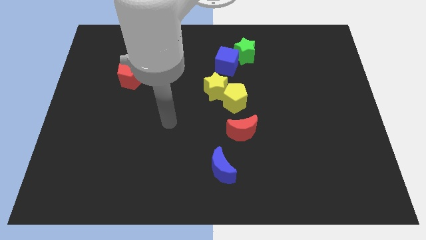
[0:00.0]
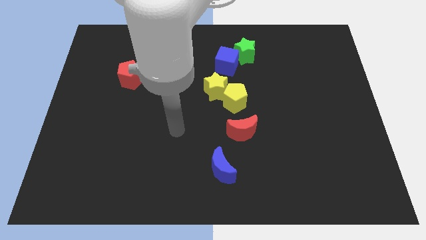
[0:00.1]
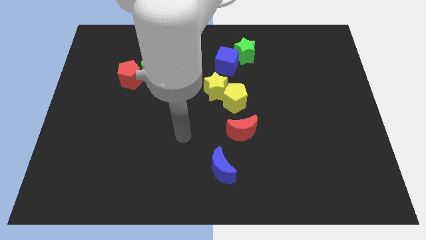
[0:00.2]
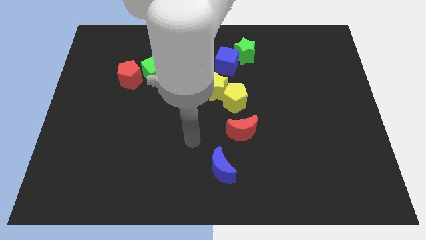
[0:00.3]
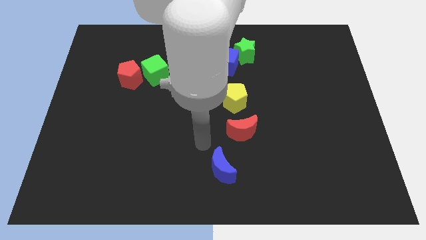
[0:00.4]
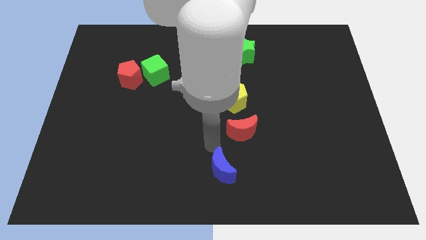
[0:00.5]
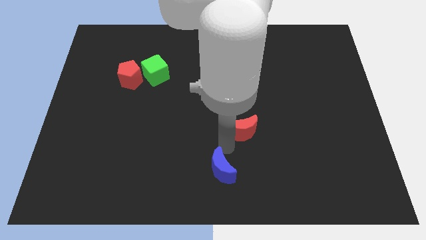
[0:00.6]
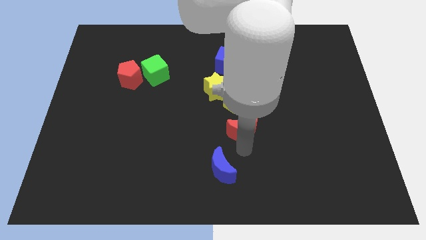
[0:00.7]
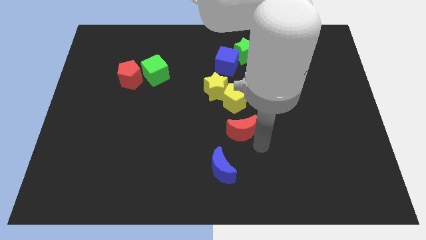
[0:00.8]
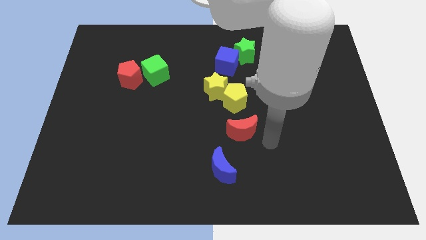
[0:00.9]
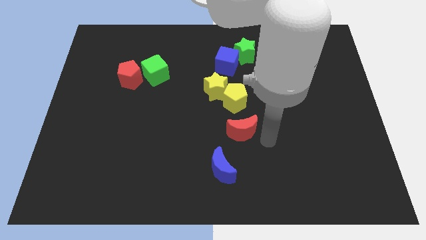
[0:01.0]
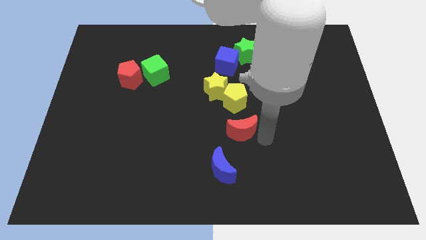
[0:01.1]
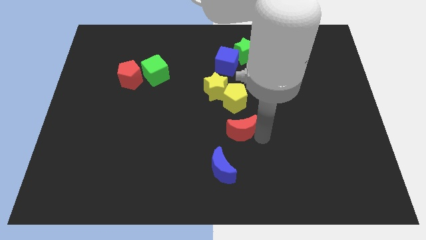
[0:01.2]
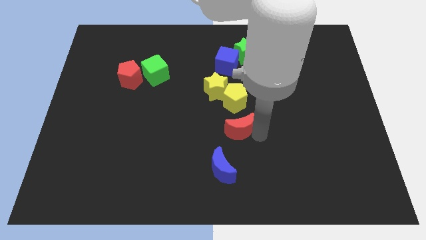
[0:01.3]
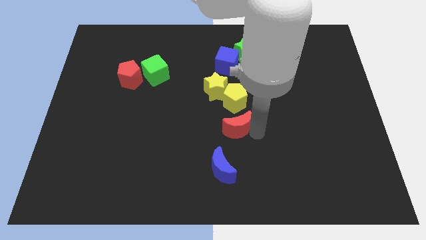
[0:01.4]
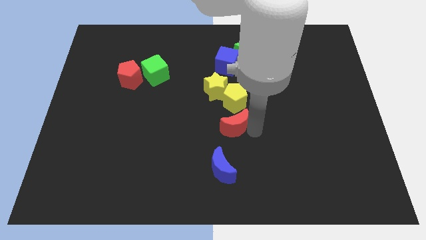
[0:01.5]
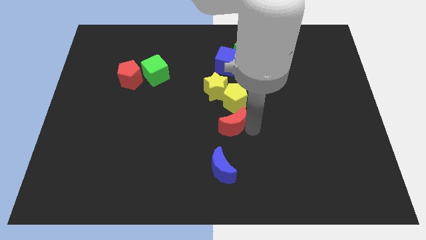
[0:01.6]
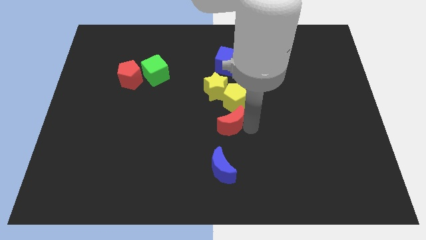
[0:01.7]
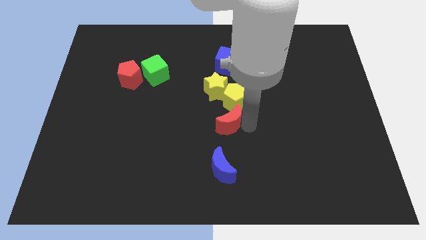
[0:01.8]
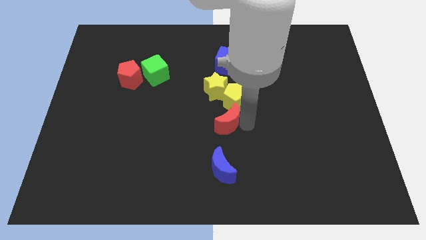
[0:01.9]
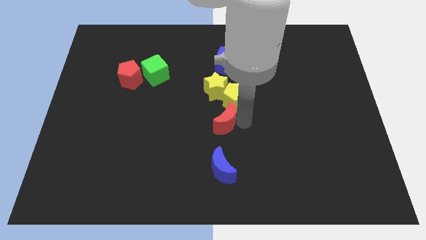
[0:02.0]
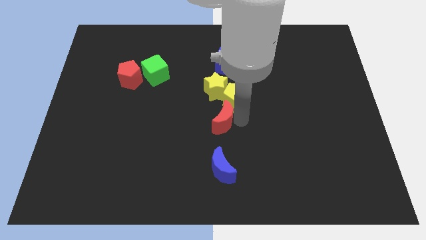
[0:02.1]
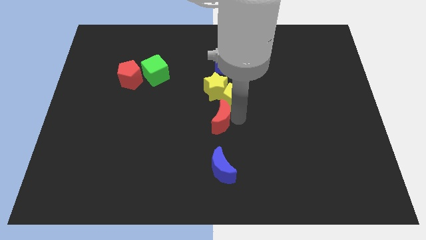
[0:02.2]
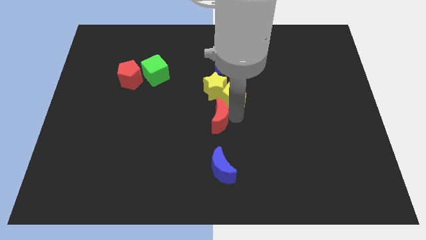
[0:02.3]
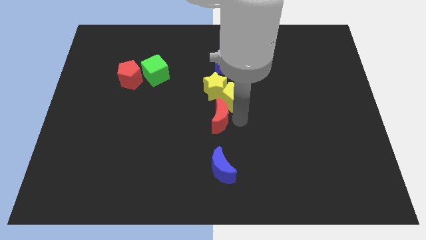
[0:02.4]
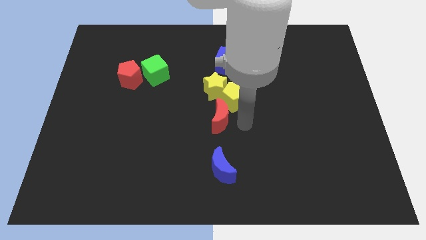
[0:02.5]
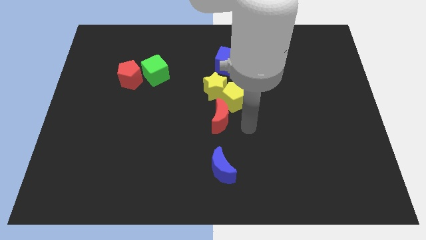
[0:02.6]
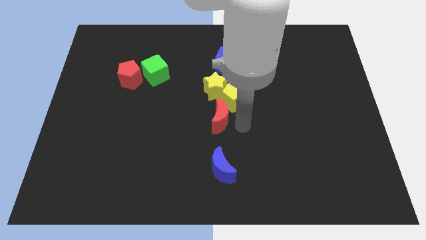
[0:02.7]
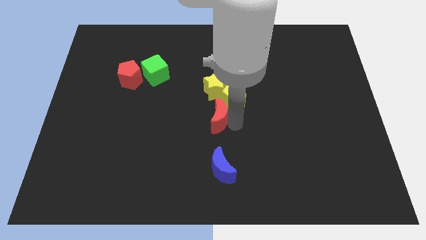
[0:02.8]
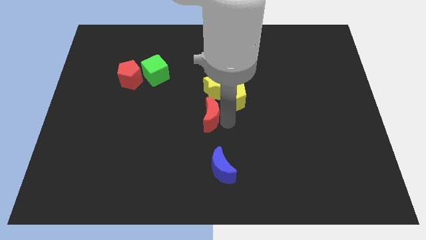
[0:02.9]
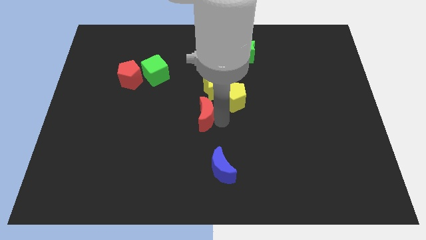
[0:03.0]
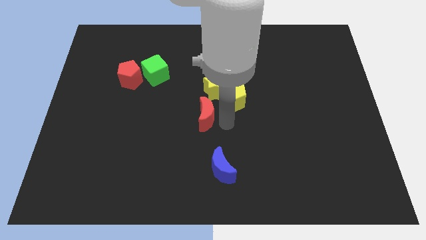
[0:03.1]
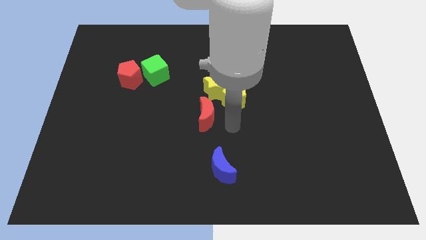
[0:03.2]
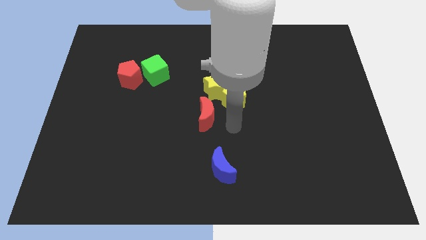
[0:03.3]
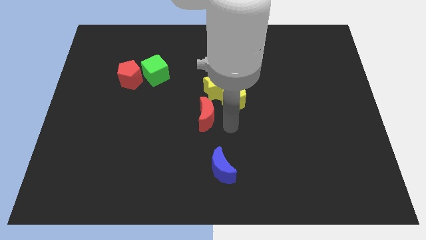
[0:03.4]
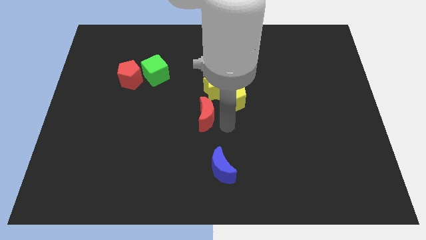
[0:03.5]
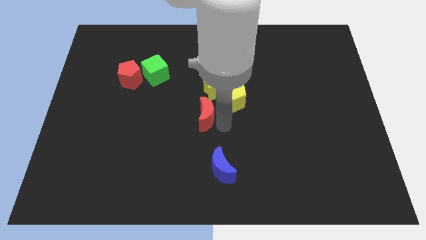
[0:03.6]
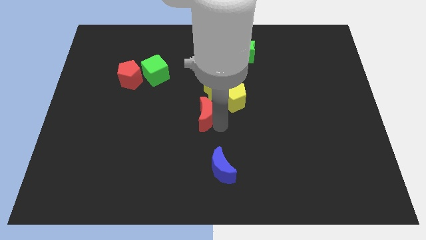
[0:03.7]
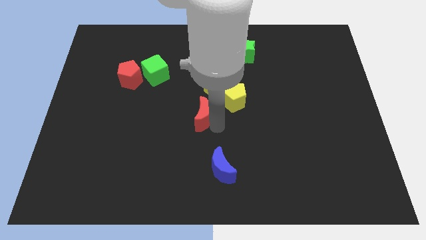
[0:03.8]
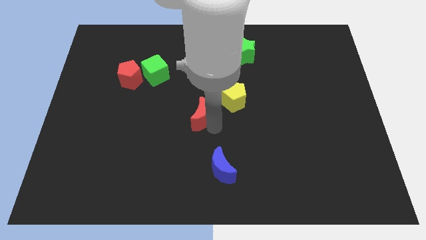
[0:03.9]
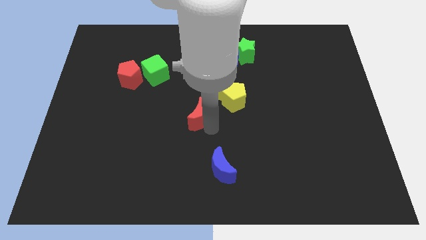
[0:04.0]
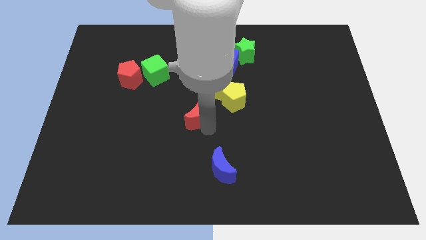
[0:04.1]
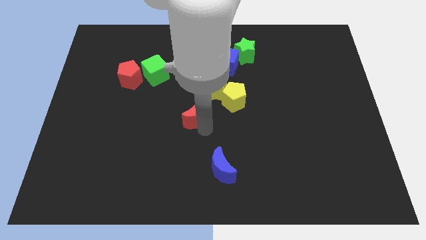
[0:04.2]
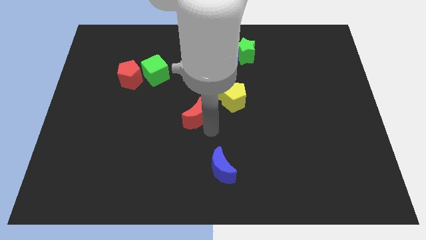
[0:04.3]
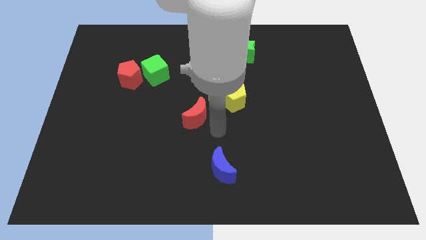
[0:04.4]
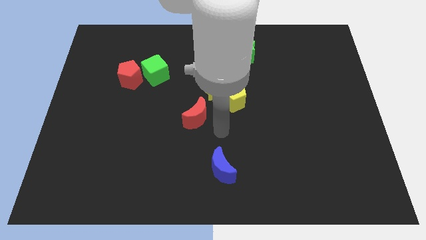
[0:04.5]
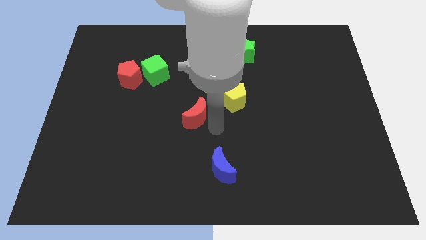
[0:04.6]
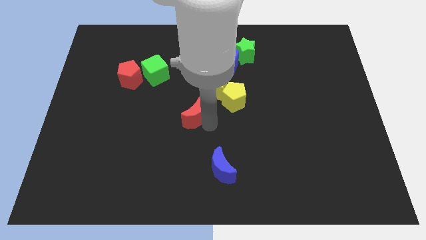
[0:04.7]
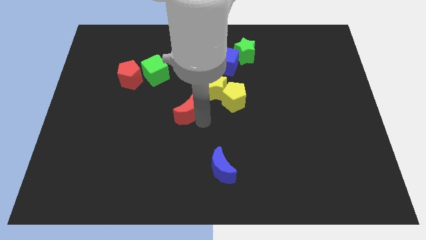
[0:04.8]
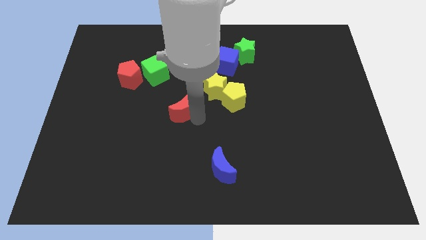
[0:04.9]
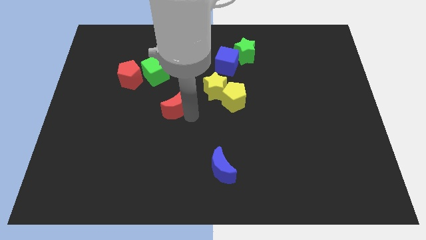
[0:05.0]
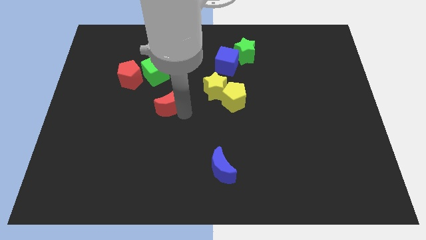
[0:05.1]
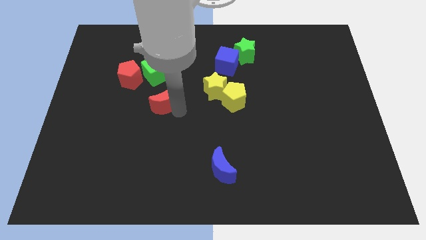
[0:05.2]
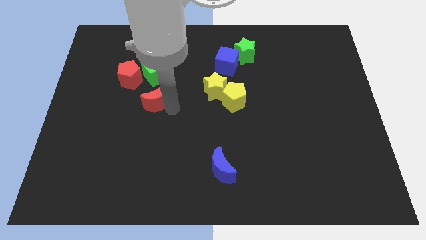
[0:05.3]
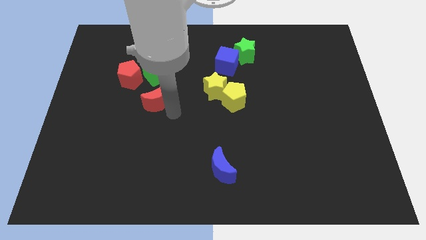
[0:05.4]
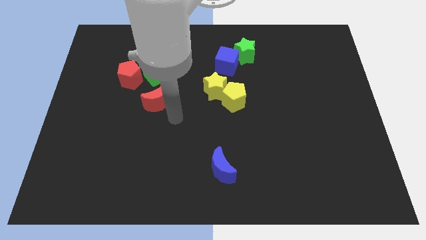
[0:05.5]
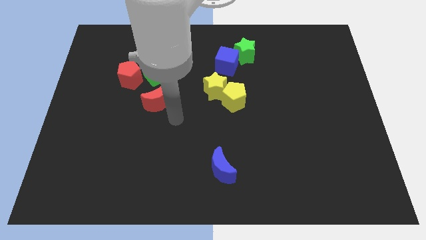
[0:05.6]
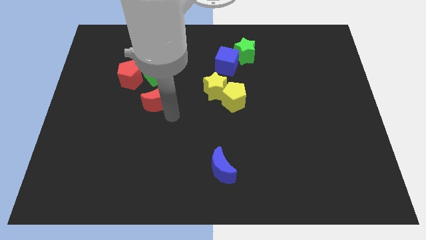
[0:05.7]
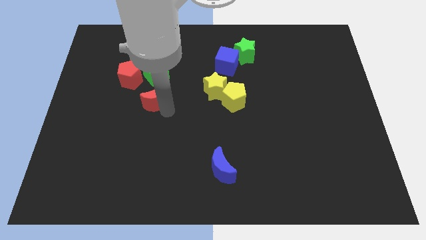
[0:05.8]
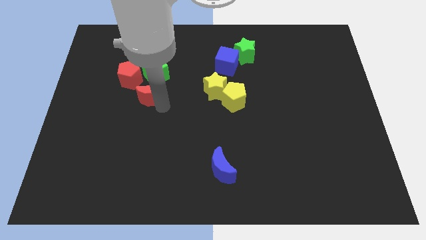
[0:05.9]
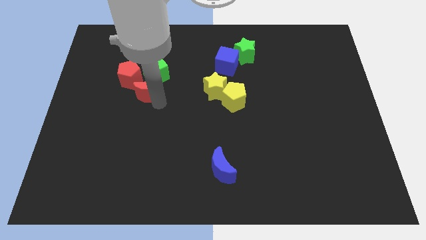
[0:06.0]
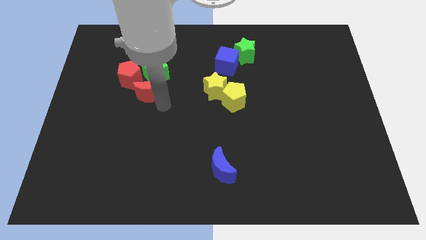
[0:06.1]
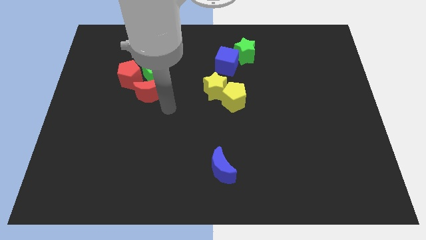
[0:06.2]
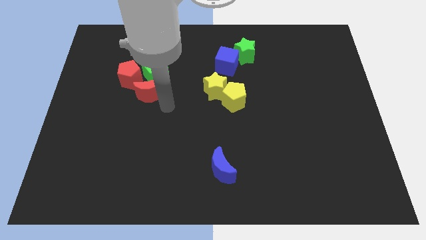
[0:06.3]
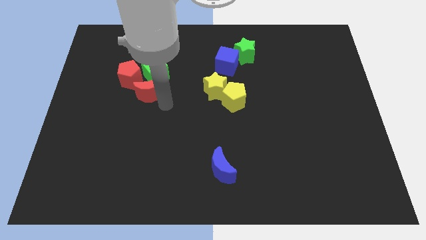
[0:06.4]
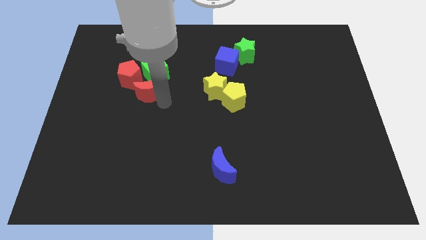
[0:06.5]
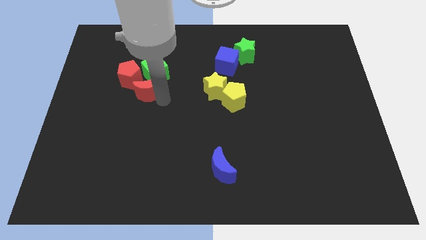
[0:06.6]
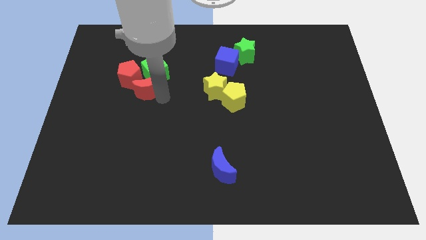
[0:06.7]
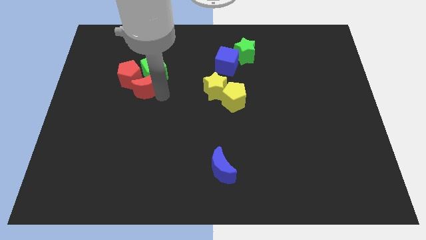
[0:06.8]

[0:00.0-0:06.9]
put the red moon next to the red pentagon
